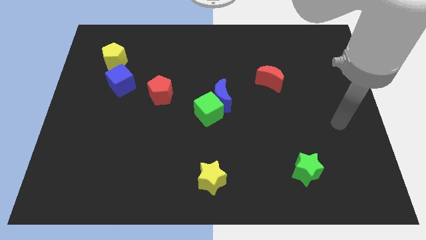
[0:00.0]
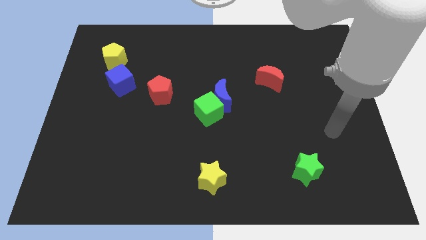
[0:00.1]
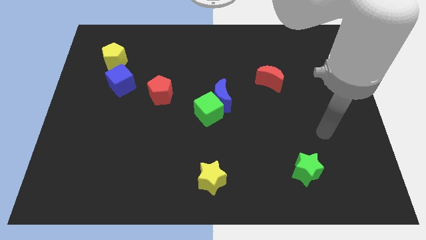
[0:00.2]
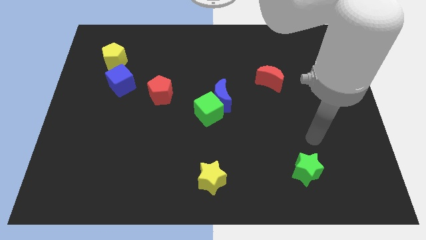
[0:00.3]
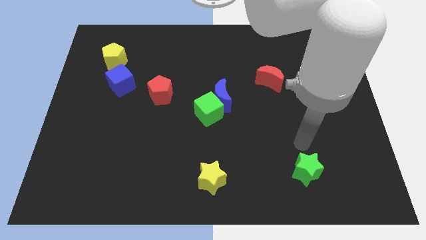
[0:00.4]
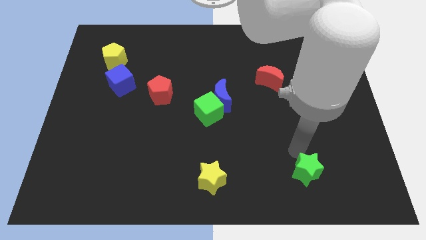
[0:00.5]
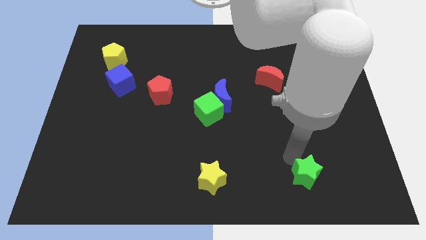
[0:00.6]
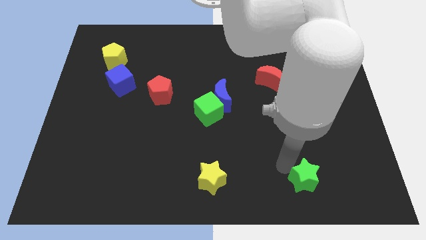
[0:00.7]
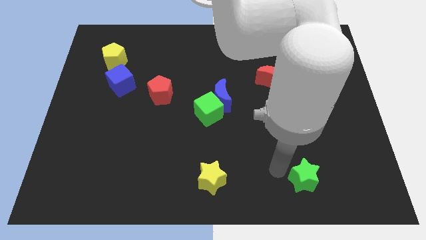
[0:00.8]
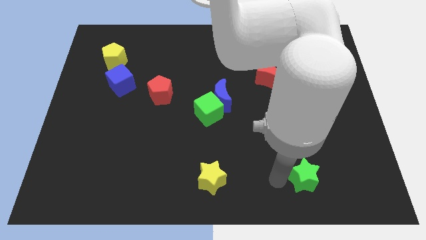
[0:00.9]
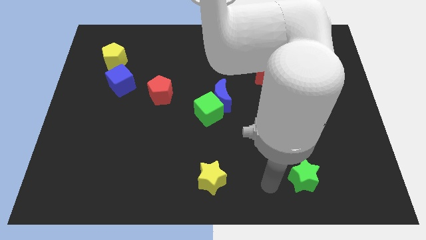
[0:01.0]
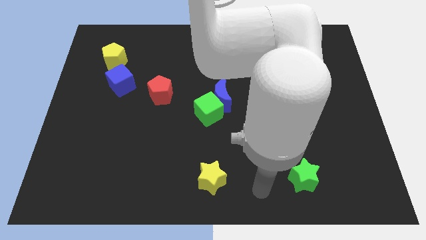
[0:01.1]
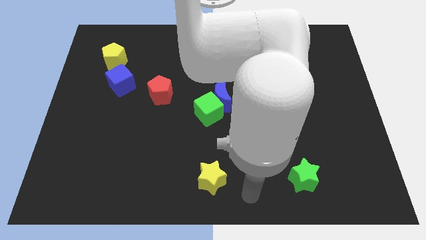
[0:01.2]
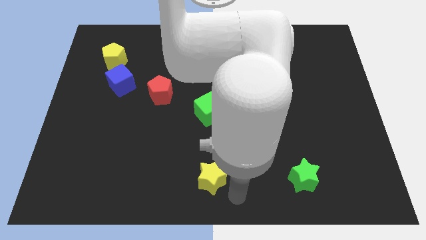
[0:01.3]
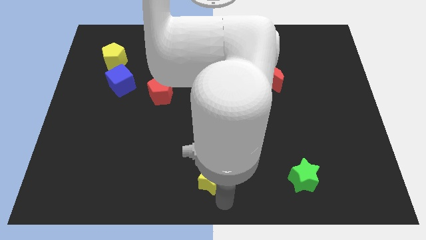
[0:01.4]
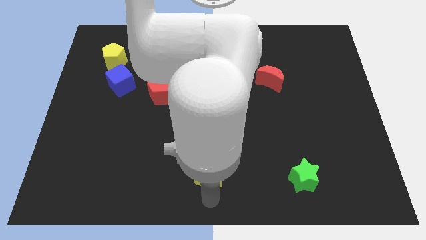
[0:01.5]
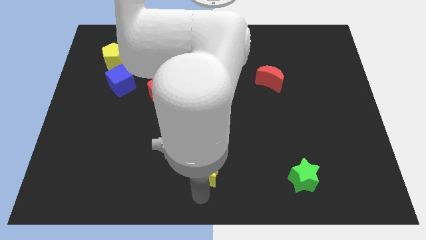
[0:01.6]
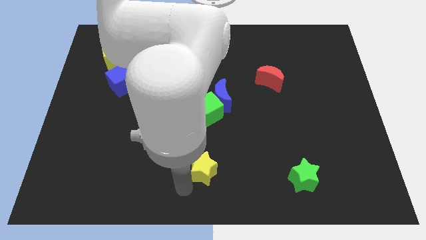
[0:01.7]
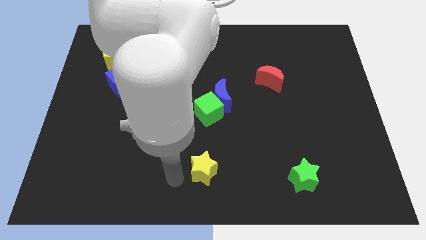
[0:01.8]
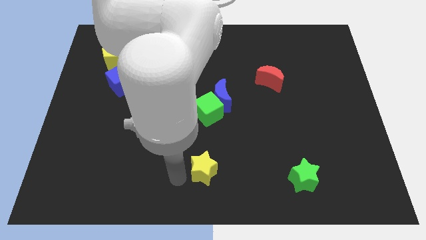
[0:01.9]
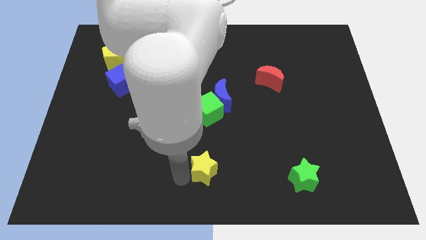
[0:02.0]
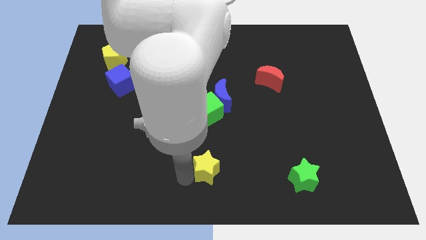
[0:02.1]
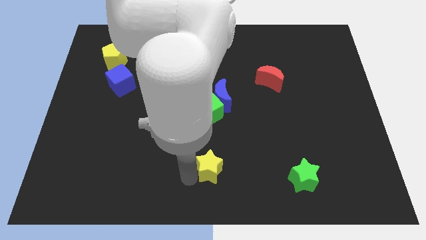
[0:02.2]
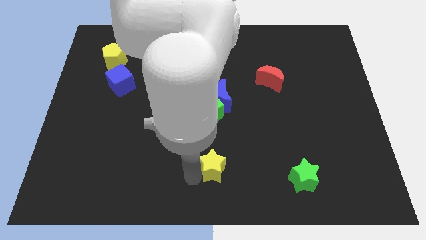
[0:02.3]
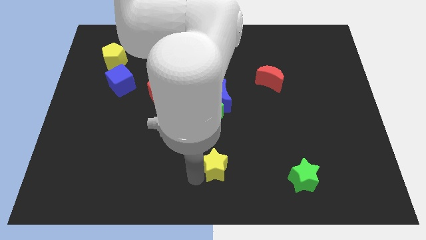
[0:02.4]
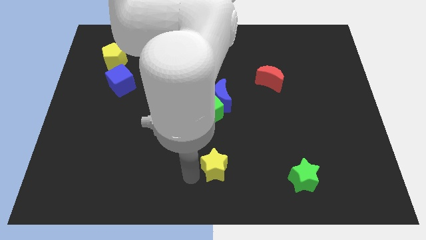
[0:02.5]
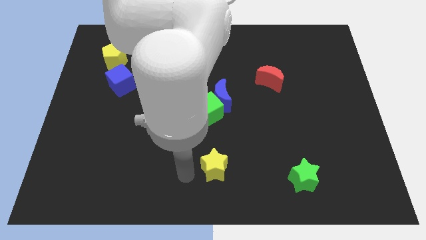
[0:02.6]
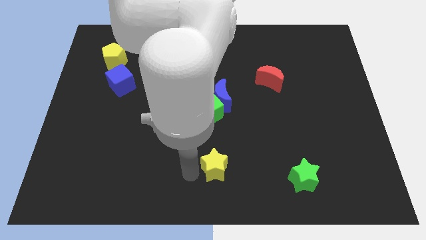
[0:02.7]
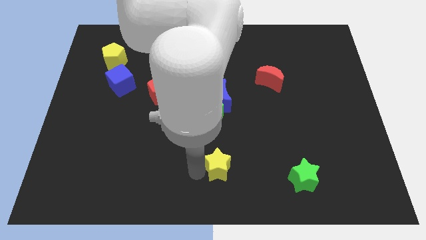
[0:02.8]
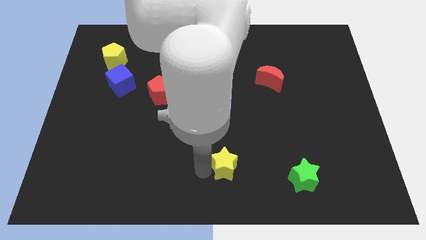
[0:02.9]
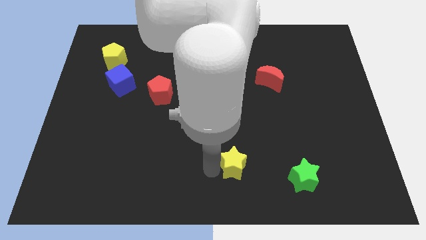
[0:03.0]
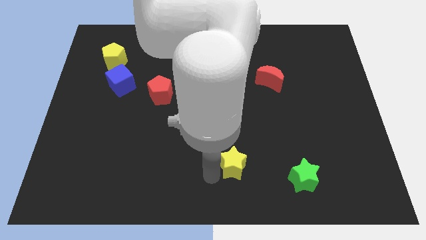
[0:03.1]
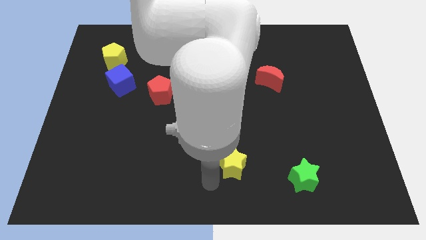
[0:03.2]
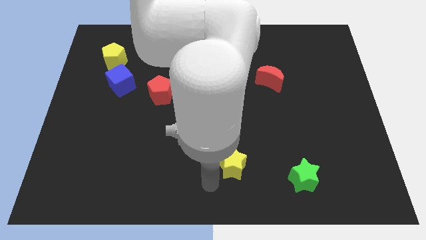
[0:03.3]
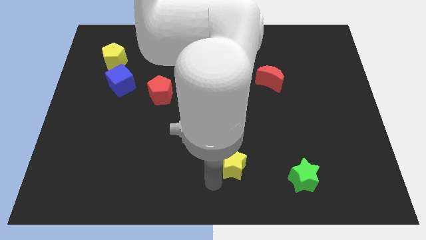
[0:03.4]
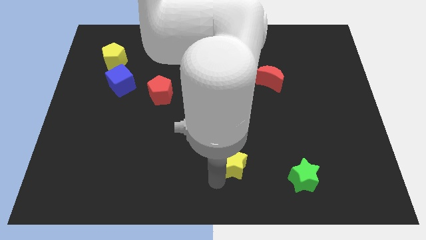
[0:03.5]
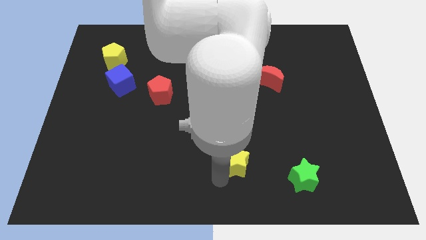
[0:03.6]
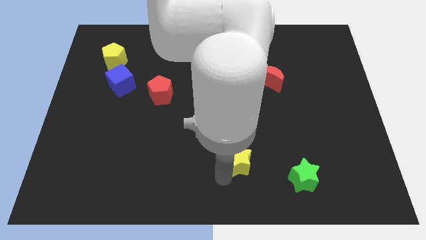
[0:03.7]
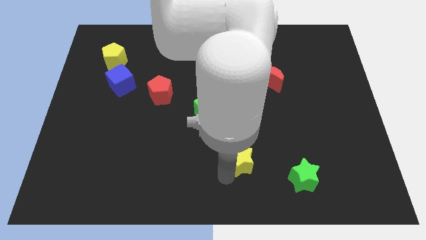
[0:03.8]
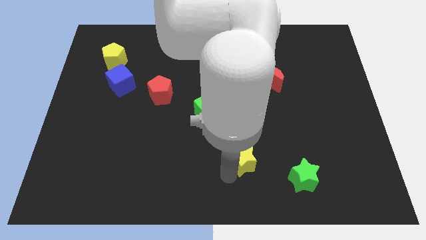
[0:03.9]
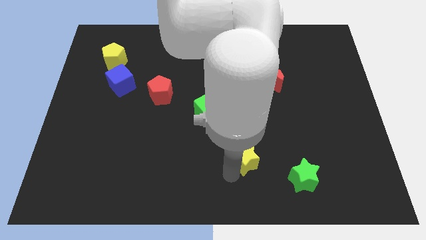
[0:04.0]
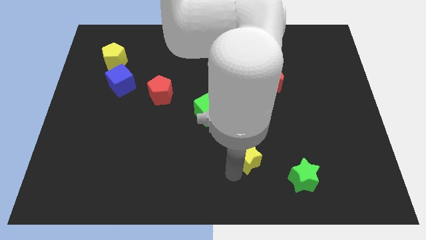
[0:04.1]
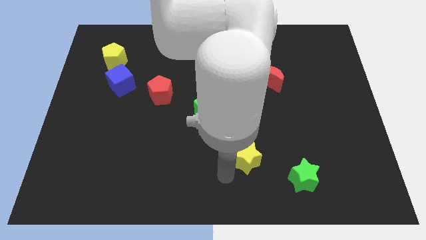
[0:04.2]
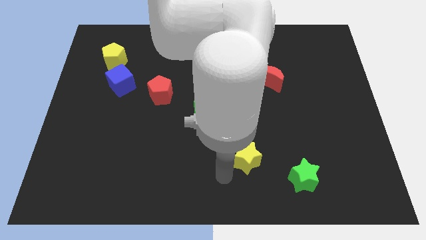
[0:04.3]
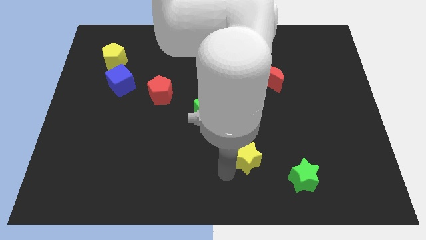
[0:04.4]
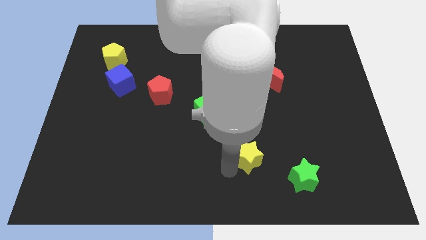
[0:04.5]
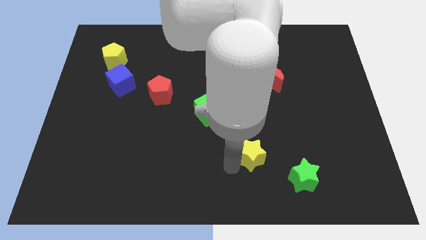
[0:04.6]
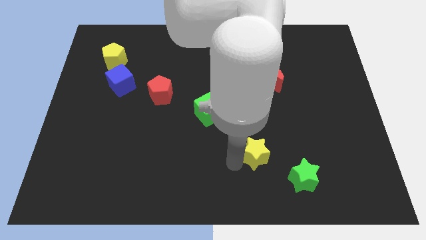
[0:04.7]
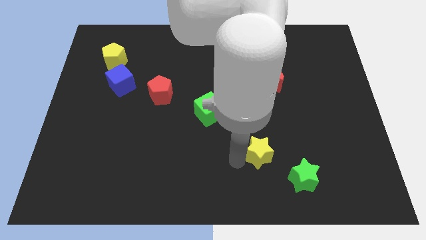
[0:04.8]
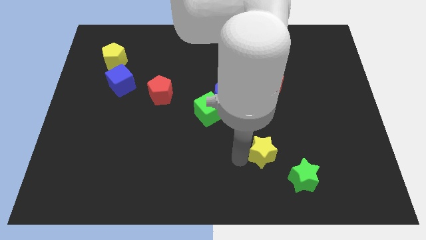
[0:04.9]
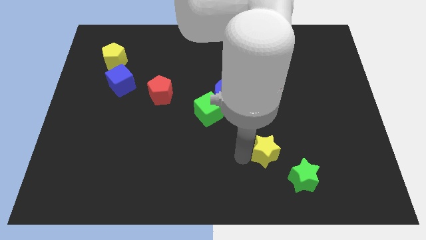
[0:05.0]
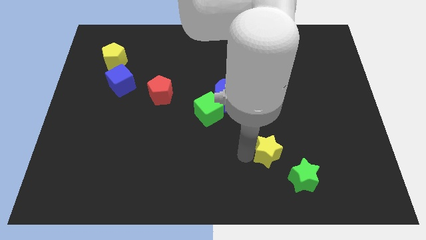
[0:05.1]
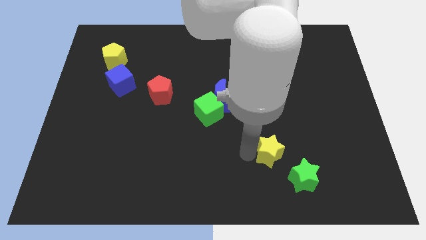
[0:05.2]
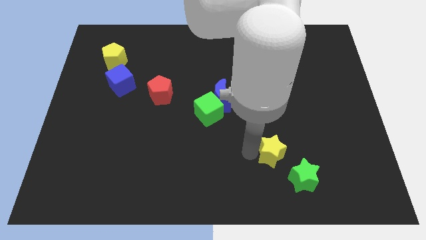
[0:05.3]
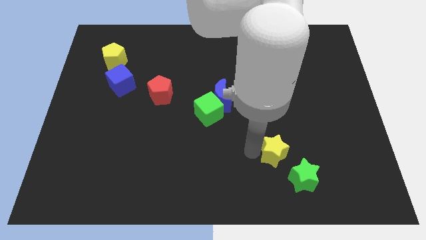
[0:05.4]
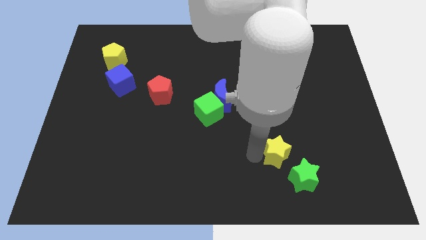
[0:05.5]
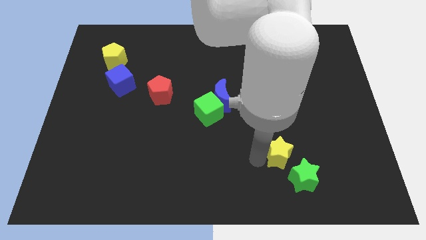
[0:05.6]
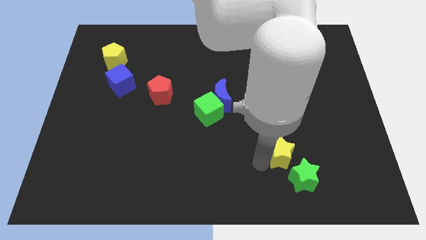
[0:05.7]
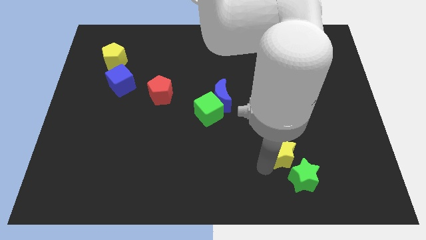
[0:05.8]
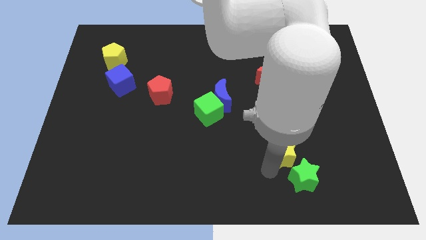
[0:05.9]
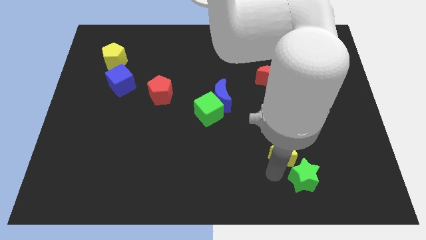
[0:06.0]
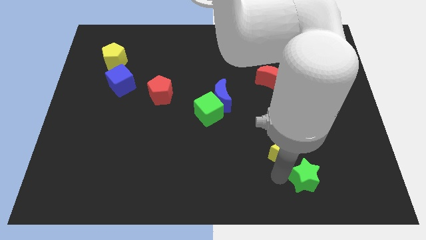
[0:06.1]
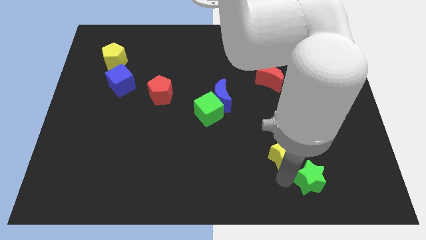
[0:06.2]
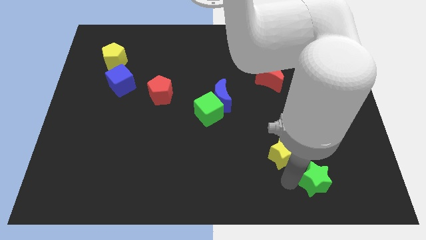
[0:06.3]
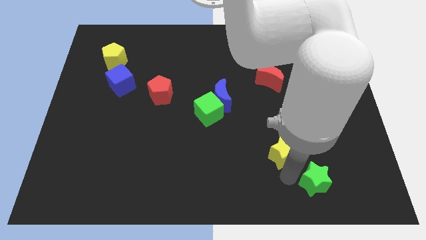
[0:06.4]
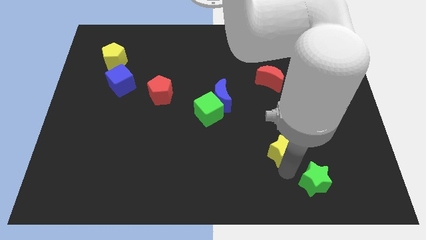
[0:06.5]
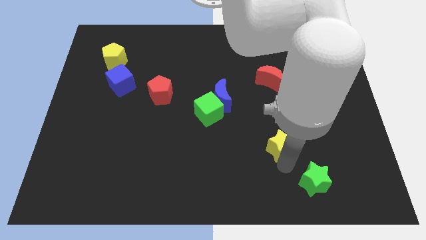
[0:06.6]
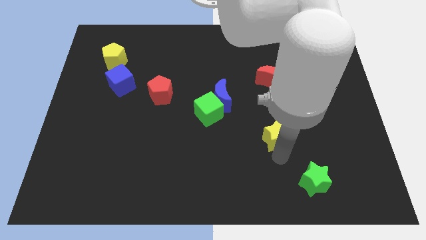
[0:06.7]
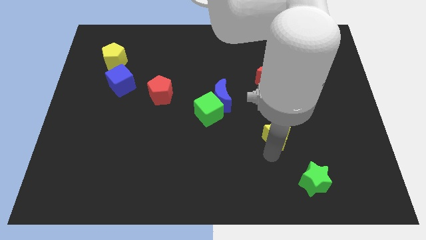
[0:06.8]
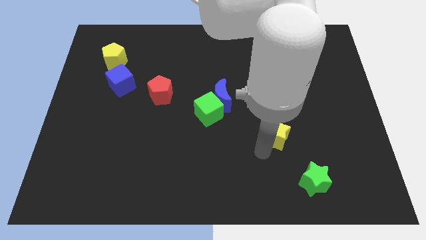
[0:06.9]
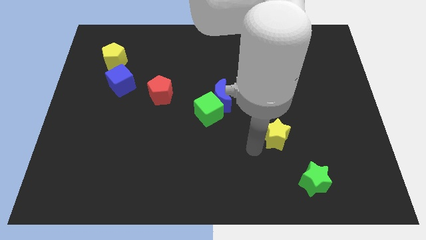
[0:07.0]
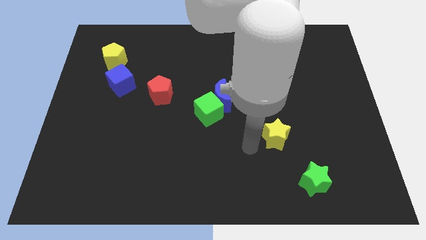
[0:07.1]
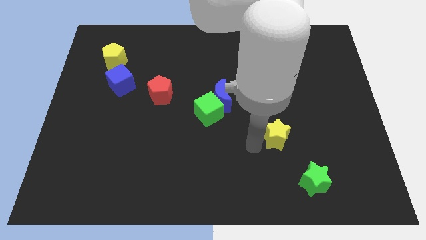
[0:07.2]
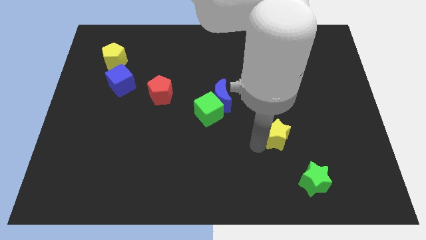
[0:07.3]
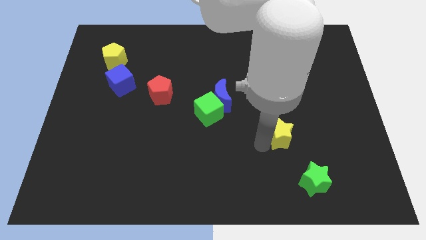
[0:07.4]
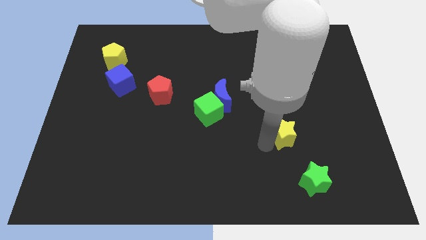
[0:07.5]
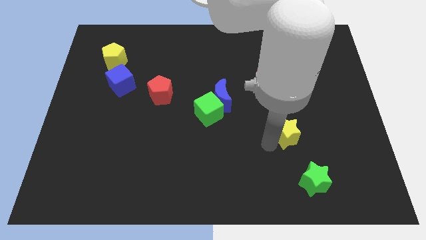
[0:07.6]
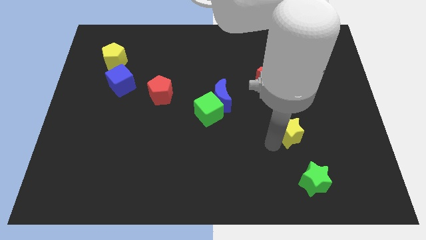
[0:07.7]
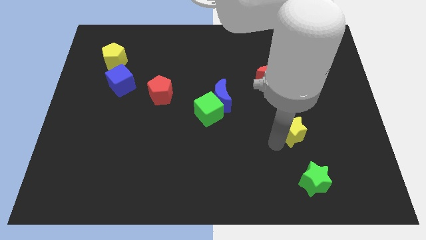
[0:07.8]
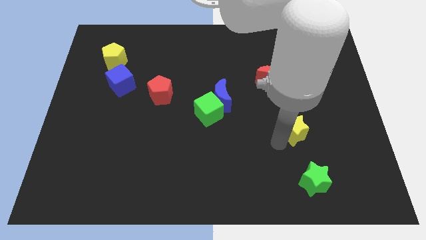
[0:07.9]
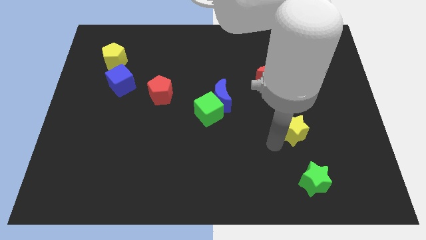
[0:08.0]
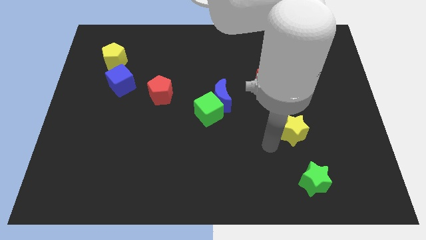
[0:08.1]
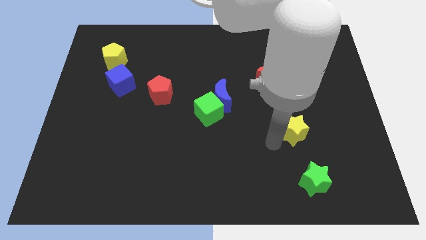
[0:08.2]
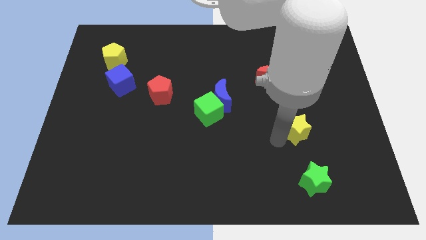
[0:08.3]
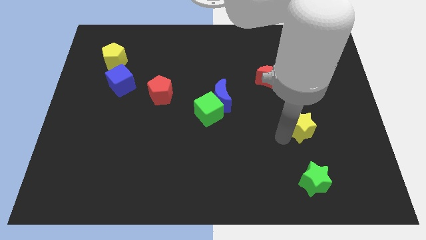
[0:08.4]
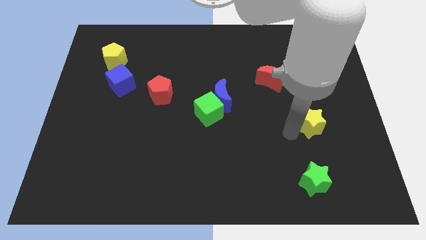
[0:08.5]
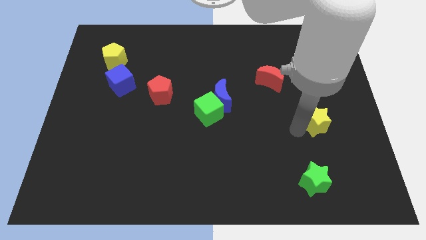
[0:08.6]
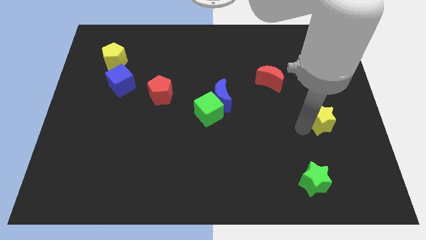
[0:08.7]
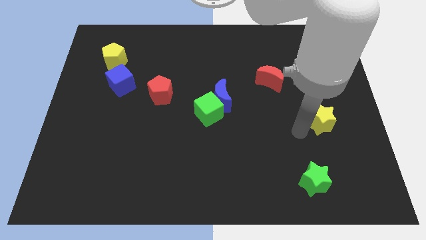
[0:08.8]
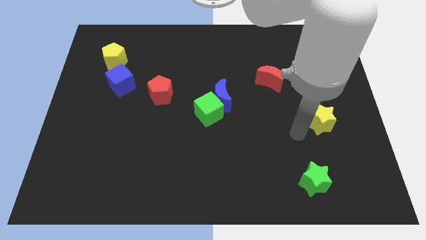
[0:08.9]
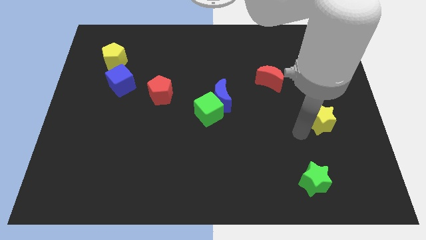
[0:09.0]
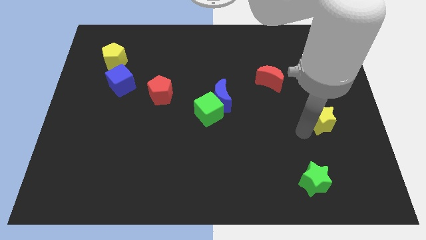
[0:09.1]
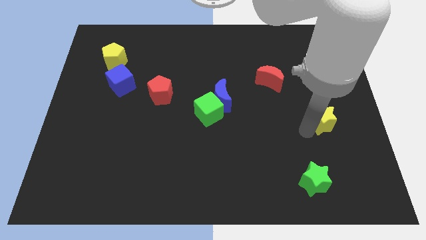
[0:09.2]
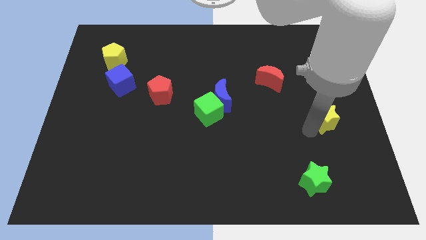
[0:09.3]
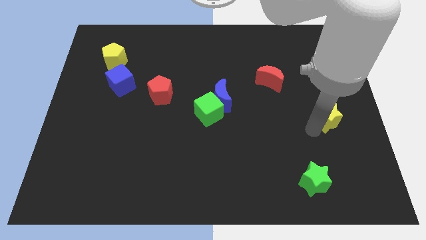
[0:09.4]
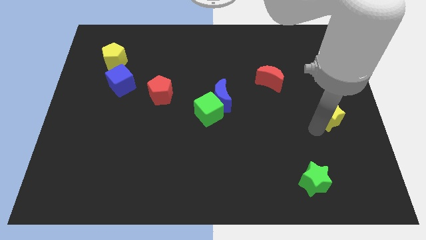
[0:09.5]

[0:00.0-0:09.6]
move the yellow star to the right side
